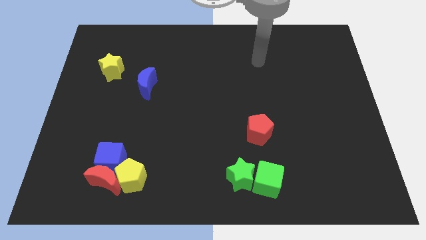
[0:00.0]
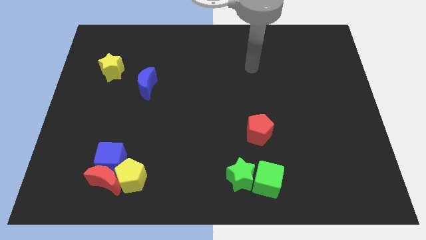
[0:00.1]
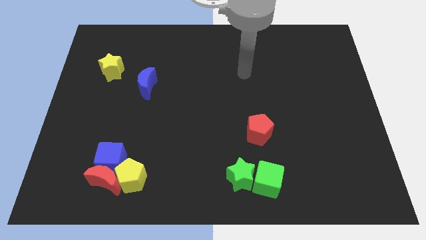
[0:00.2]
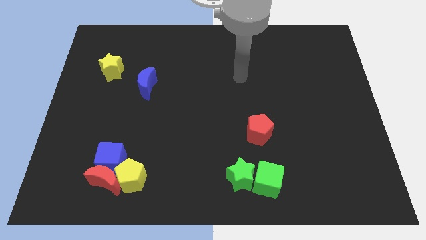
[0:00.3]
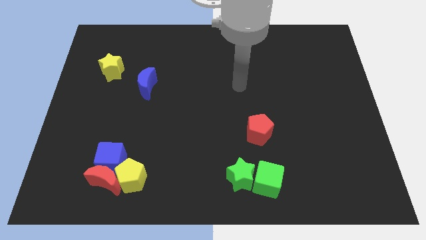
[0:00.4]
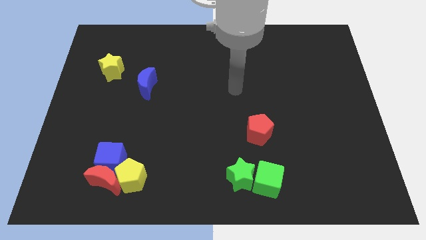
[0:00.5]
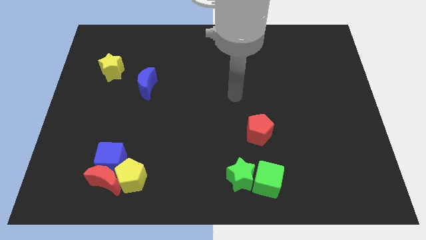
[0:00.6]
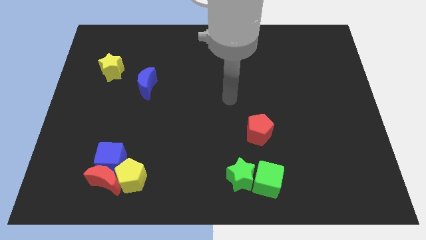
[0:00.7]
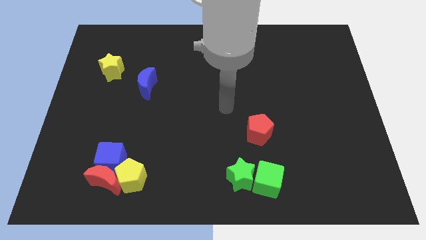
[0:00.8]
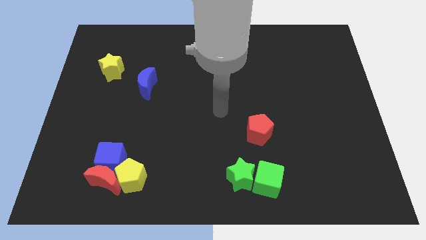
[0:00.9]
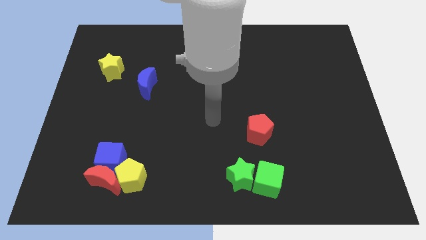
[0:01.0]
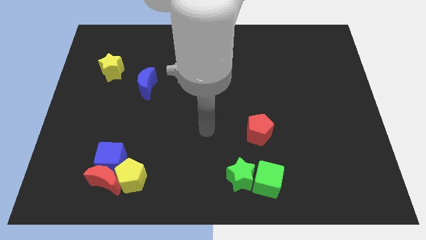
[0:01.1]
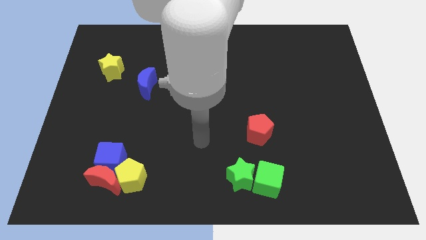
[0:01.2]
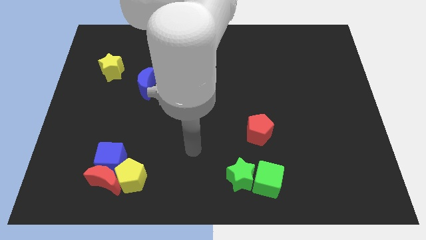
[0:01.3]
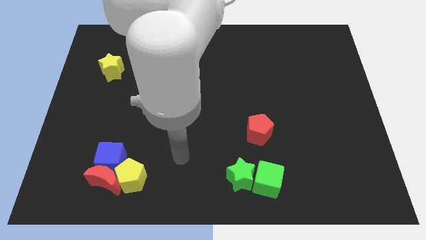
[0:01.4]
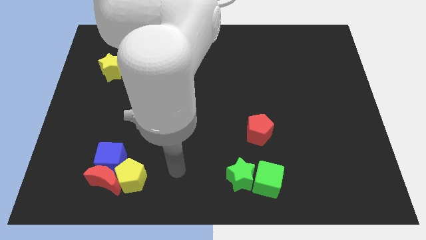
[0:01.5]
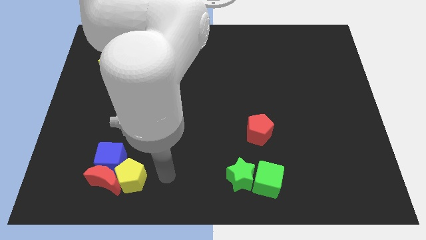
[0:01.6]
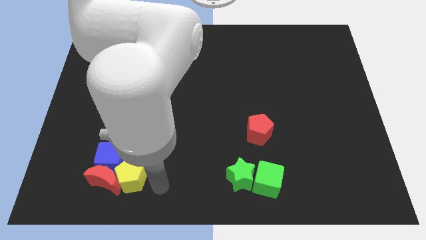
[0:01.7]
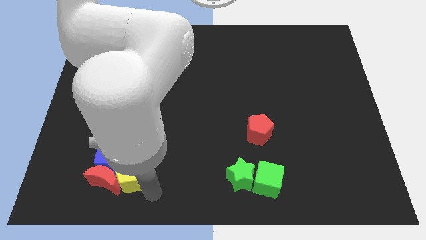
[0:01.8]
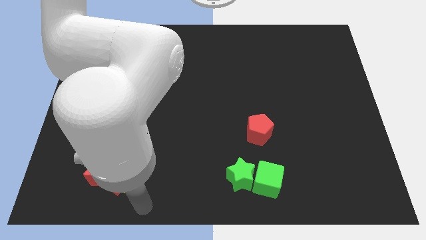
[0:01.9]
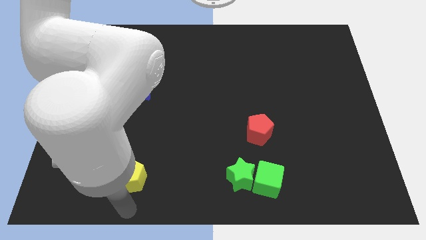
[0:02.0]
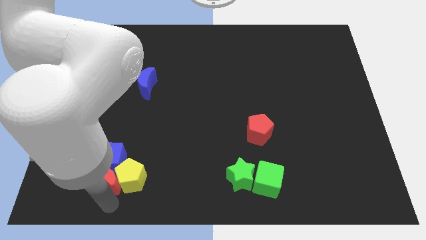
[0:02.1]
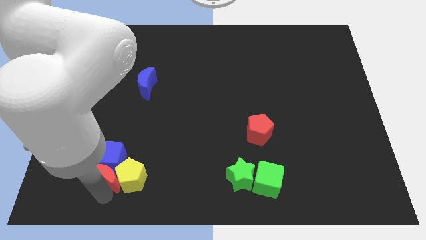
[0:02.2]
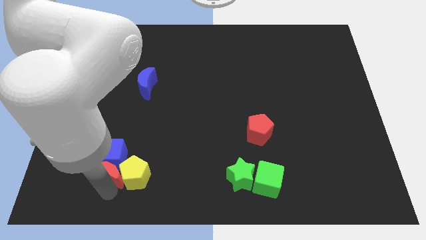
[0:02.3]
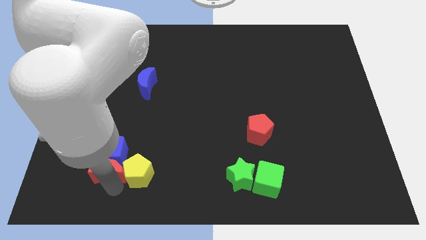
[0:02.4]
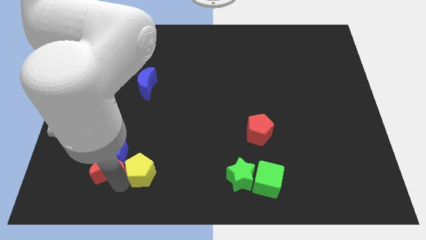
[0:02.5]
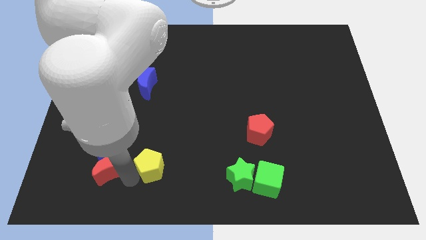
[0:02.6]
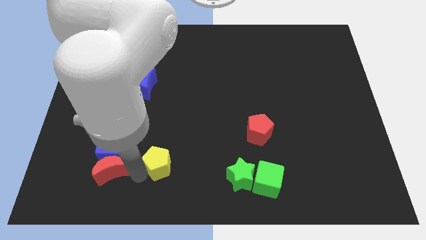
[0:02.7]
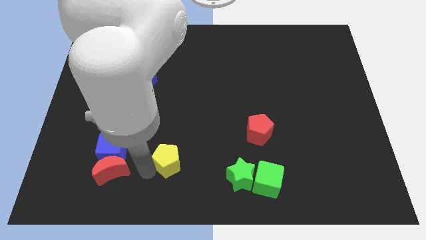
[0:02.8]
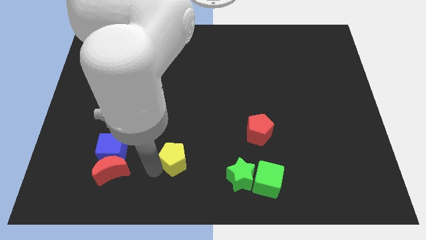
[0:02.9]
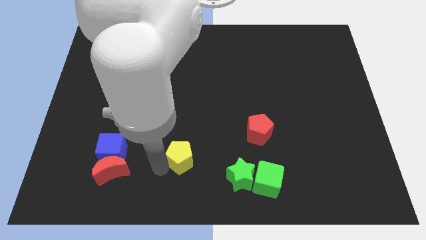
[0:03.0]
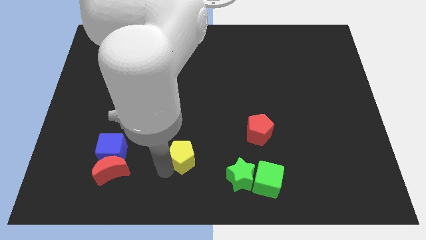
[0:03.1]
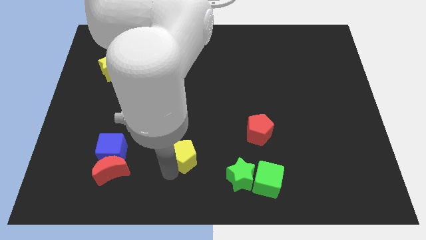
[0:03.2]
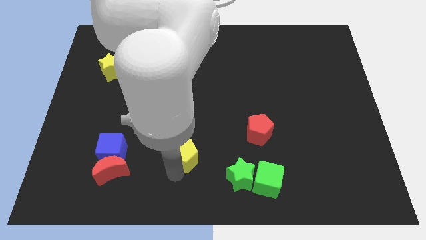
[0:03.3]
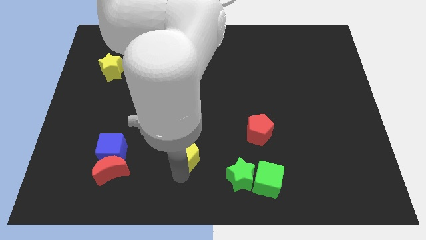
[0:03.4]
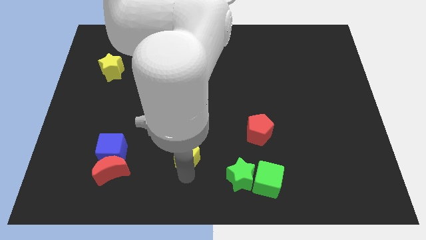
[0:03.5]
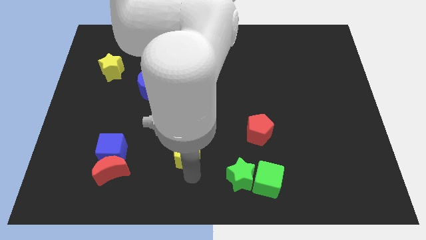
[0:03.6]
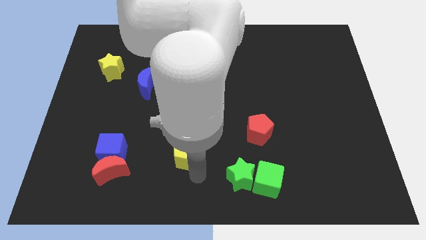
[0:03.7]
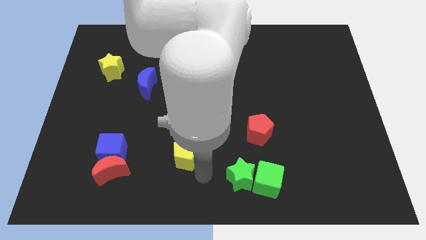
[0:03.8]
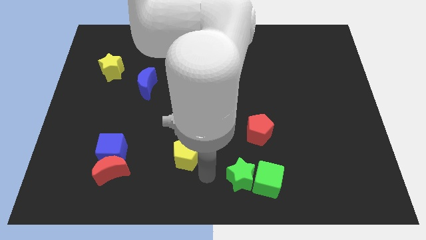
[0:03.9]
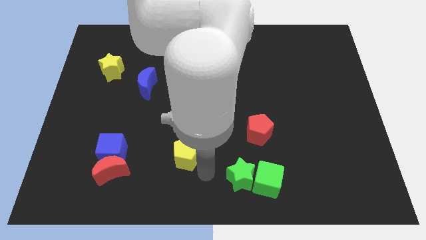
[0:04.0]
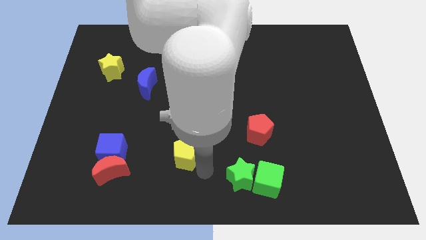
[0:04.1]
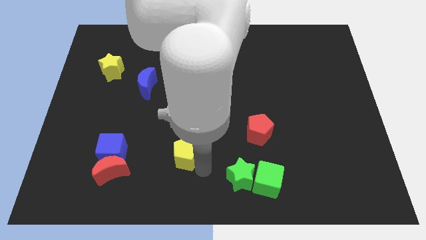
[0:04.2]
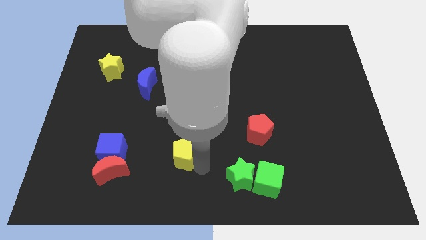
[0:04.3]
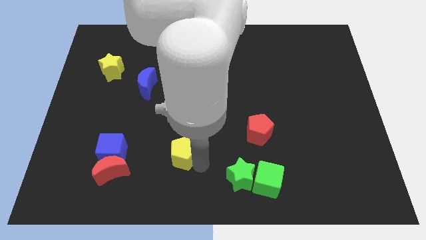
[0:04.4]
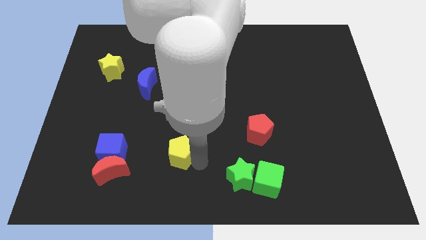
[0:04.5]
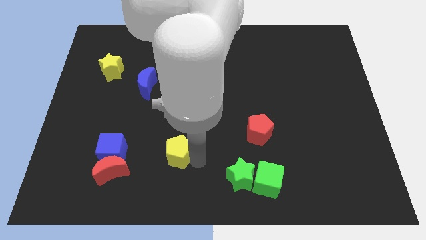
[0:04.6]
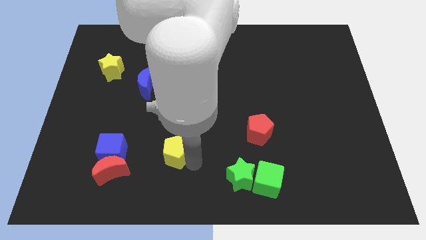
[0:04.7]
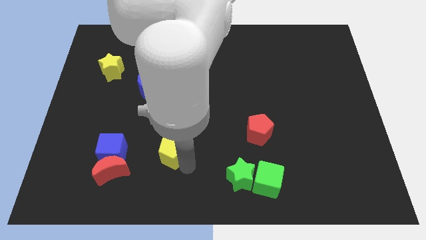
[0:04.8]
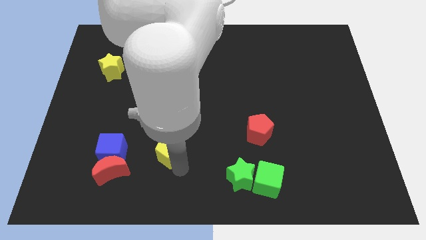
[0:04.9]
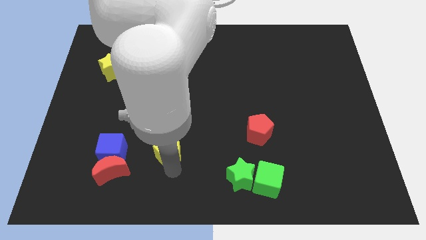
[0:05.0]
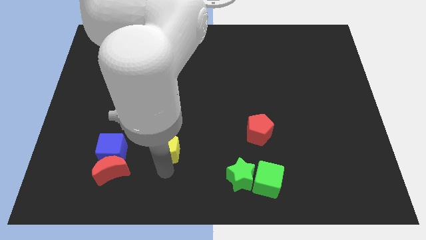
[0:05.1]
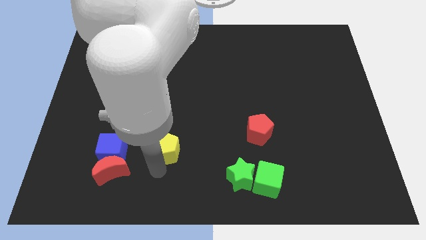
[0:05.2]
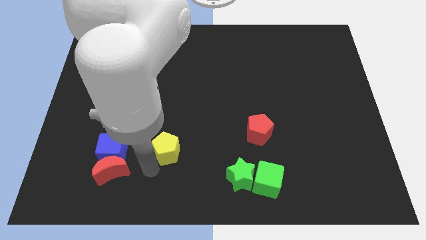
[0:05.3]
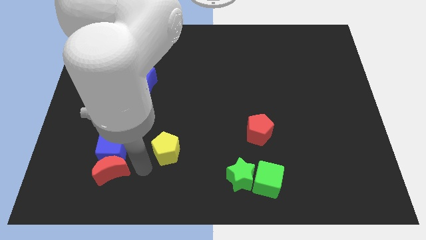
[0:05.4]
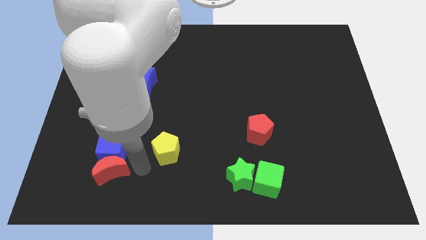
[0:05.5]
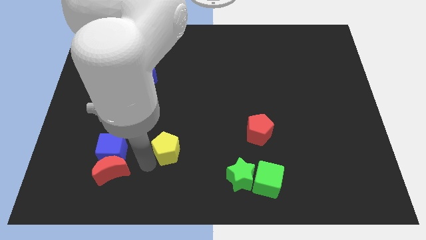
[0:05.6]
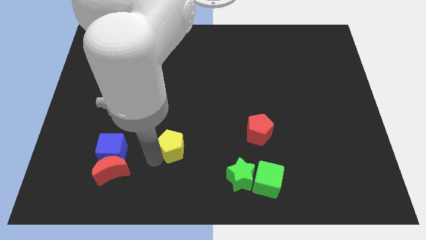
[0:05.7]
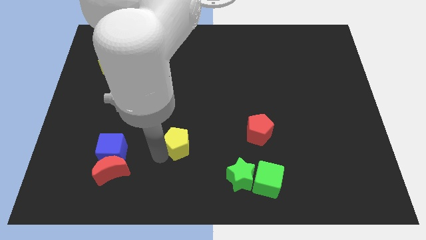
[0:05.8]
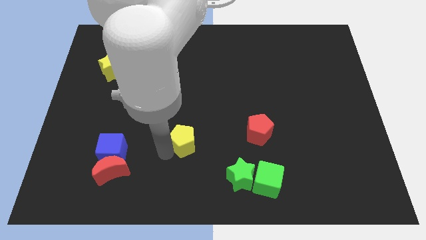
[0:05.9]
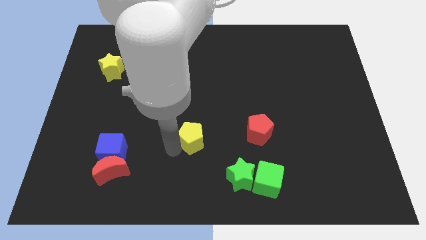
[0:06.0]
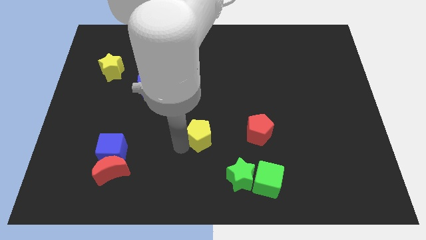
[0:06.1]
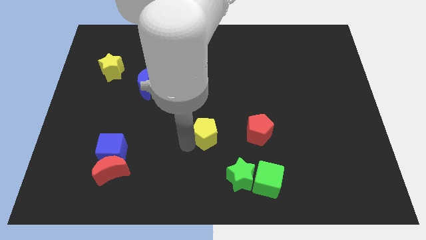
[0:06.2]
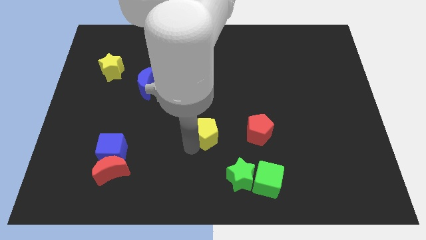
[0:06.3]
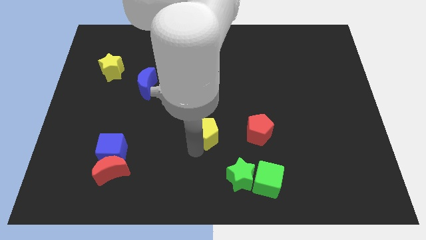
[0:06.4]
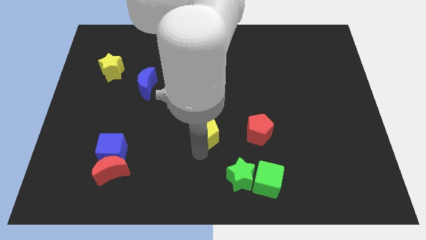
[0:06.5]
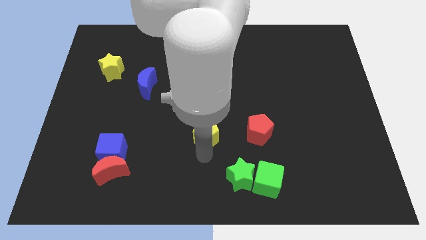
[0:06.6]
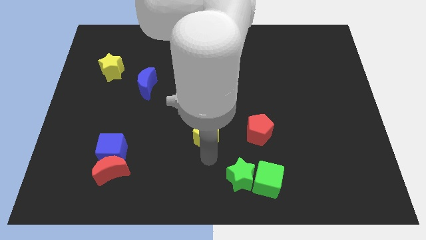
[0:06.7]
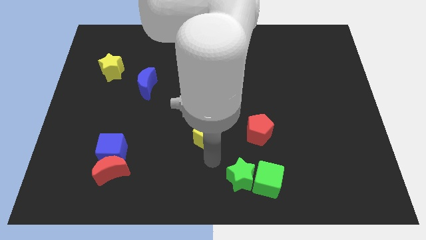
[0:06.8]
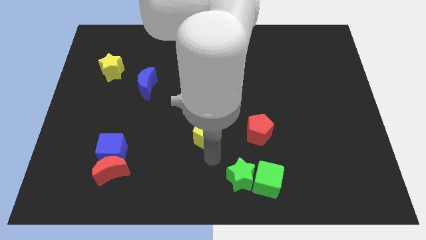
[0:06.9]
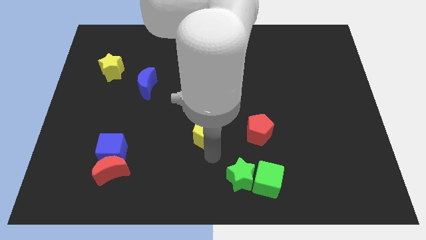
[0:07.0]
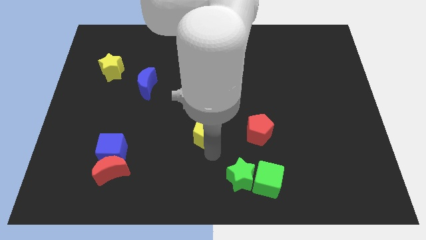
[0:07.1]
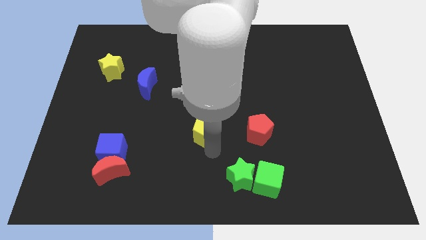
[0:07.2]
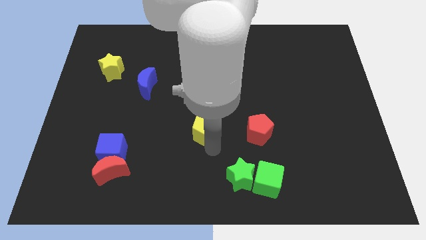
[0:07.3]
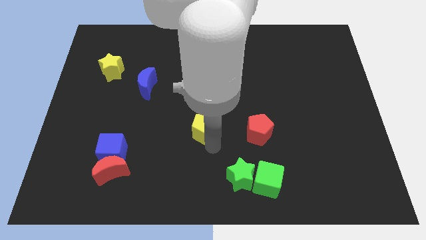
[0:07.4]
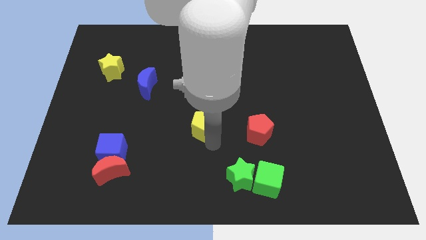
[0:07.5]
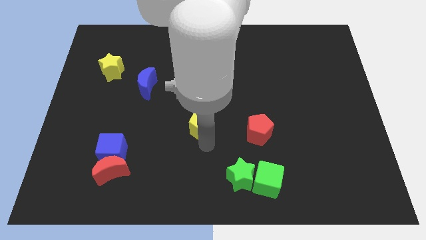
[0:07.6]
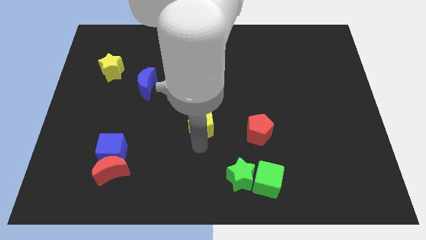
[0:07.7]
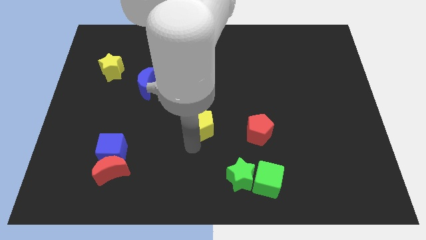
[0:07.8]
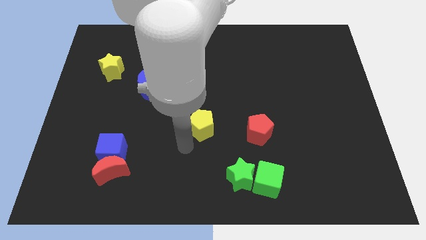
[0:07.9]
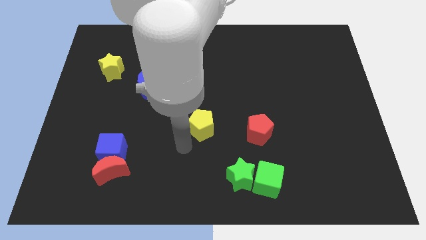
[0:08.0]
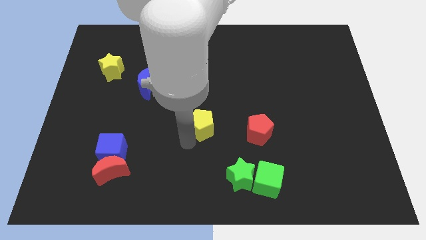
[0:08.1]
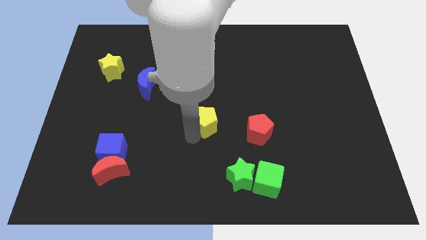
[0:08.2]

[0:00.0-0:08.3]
push the yellow pentagon up and right diagonally

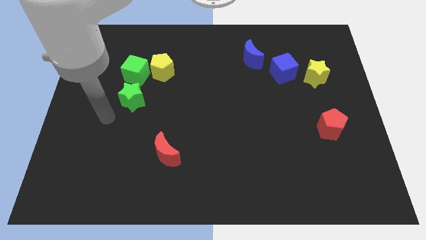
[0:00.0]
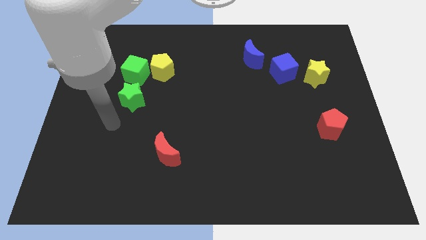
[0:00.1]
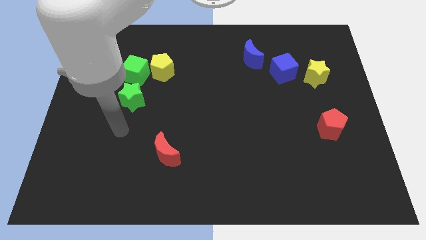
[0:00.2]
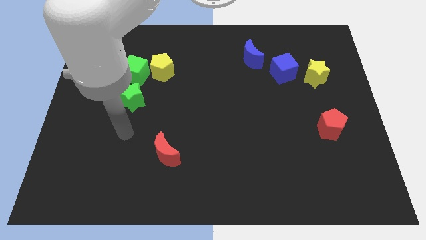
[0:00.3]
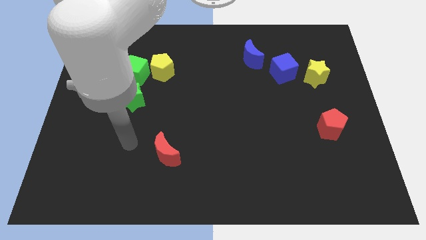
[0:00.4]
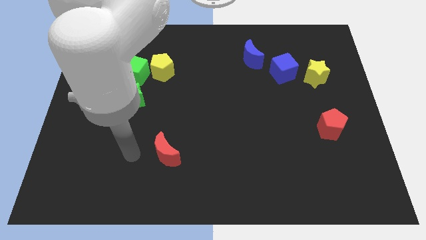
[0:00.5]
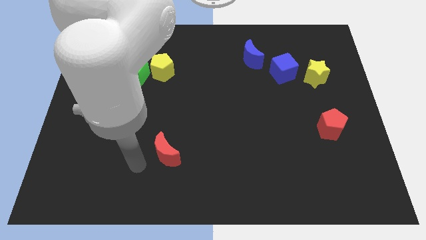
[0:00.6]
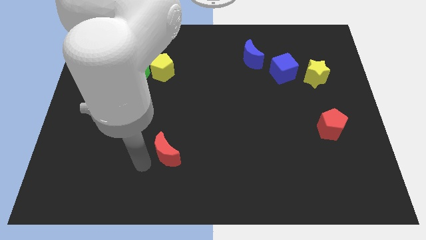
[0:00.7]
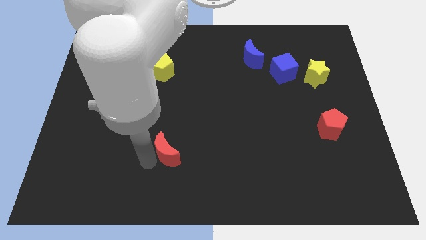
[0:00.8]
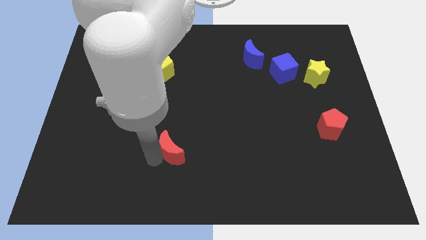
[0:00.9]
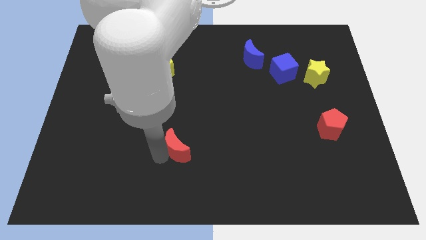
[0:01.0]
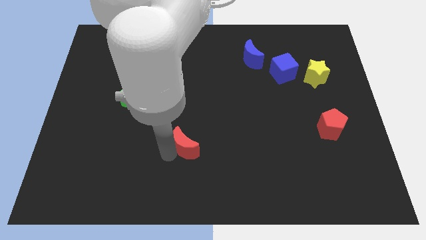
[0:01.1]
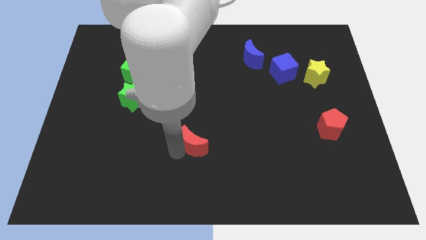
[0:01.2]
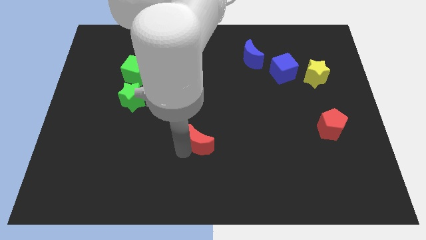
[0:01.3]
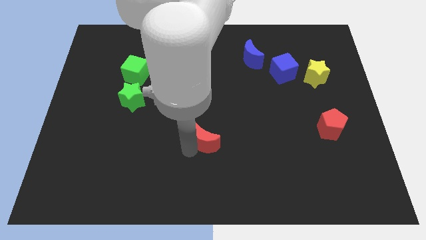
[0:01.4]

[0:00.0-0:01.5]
move the red moon a bit up and then to the right
